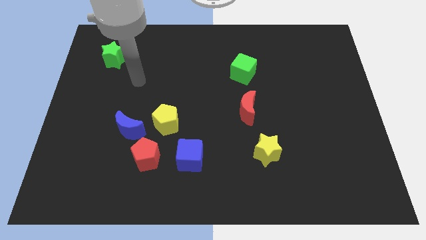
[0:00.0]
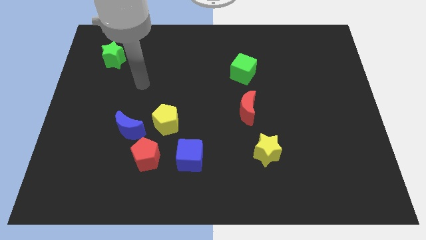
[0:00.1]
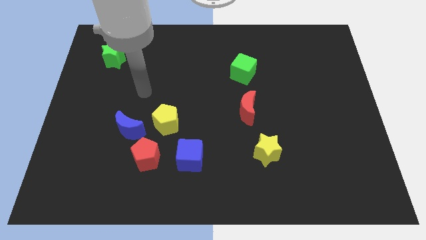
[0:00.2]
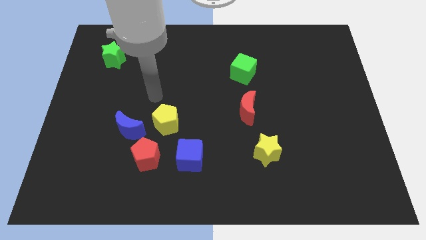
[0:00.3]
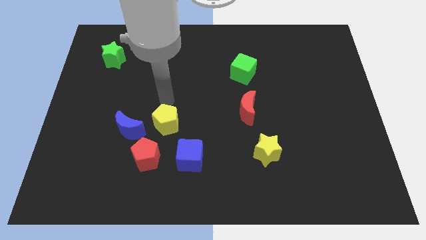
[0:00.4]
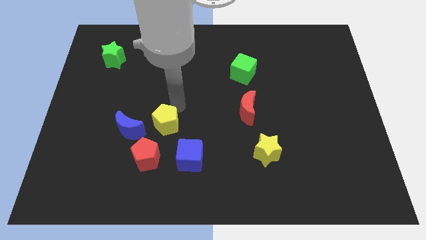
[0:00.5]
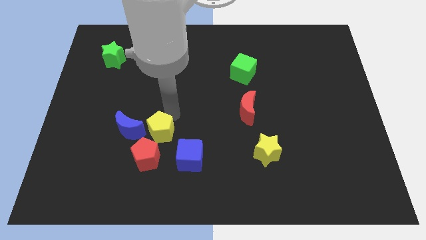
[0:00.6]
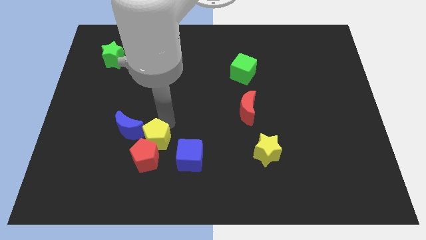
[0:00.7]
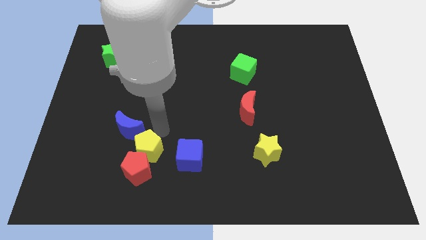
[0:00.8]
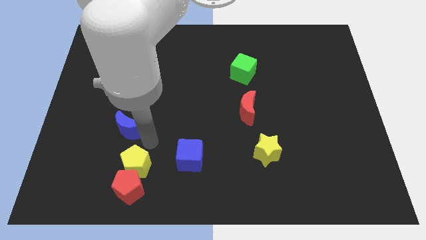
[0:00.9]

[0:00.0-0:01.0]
separate the blue moon from the red pentagon and yellow pentagon

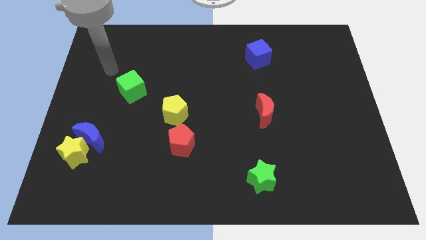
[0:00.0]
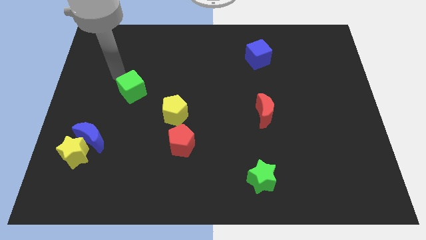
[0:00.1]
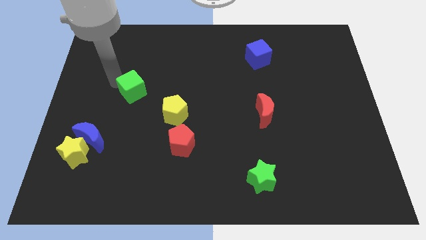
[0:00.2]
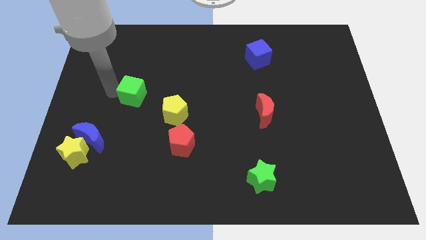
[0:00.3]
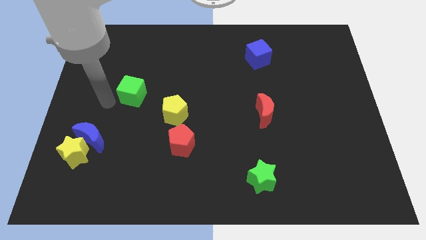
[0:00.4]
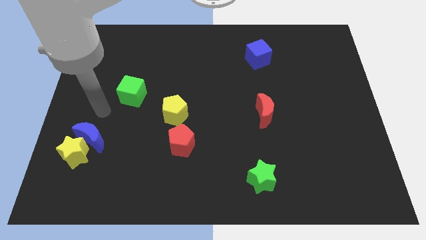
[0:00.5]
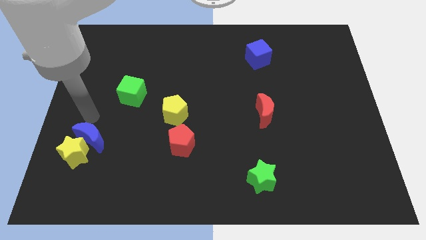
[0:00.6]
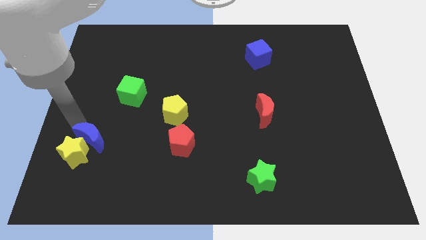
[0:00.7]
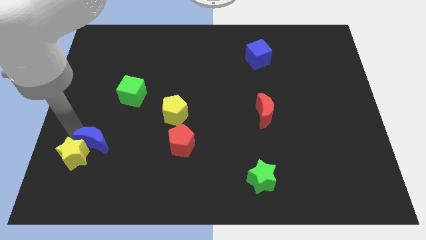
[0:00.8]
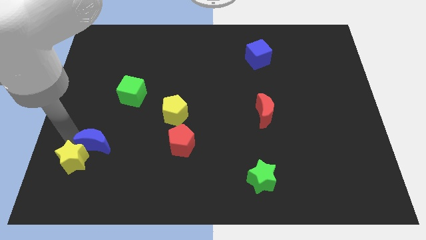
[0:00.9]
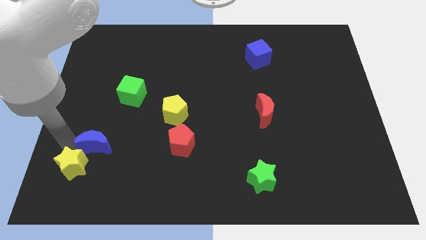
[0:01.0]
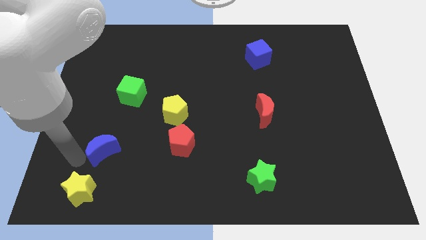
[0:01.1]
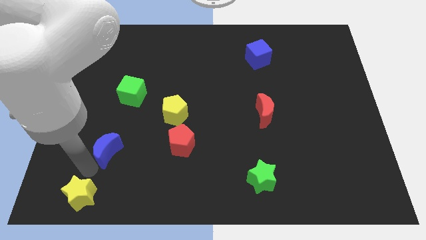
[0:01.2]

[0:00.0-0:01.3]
pull the blue moon apart from the yellow star

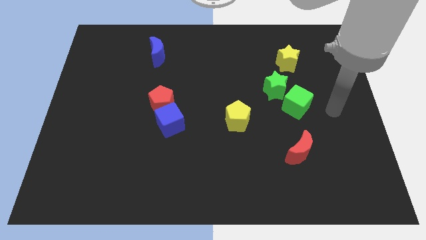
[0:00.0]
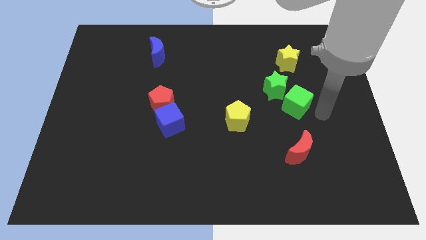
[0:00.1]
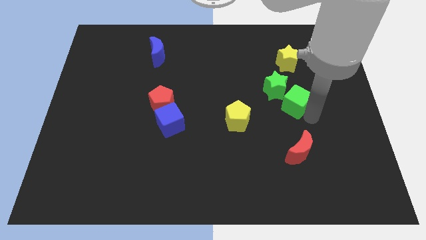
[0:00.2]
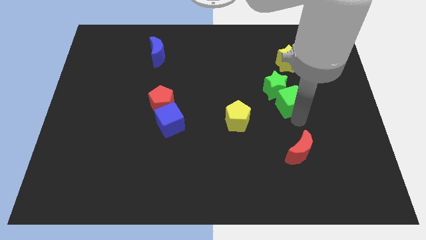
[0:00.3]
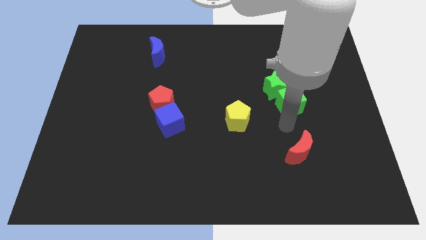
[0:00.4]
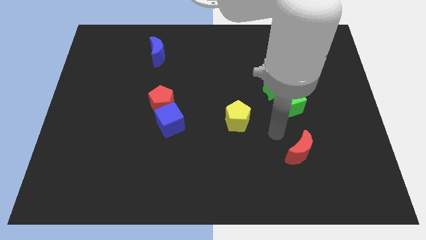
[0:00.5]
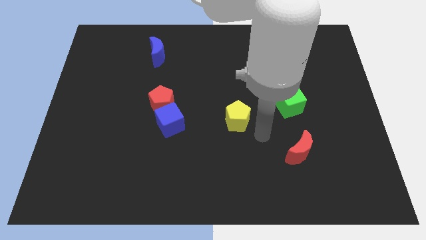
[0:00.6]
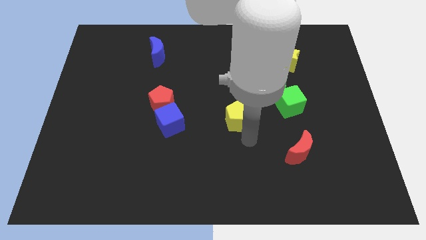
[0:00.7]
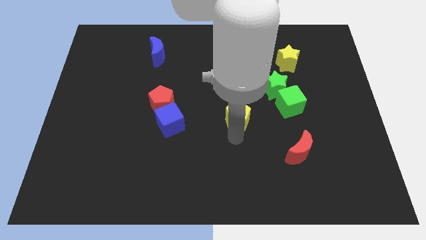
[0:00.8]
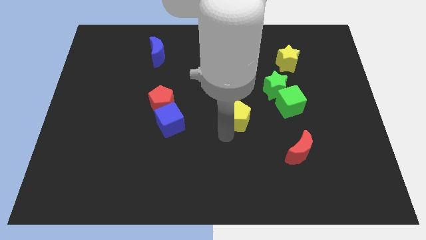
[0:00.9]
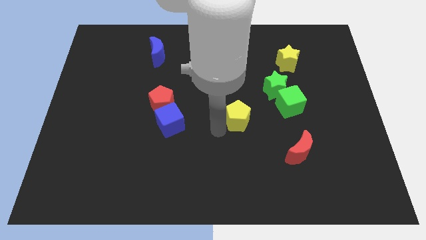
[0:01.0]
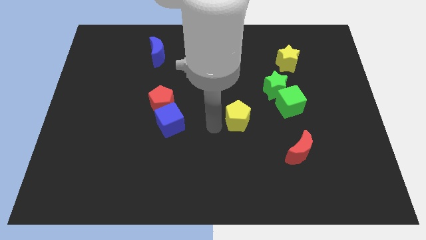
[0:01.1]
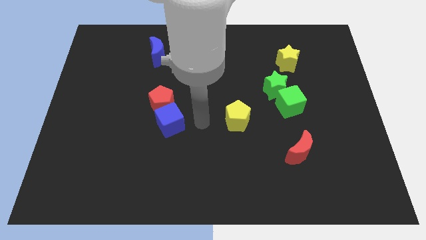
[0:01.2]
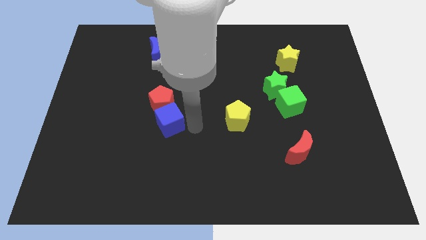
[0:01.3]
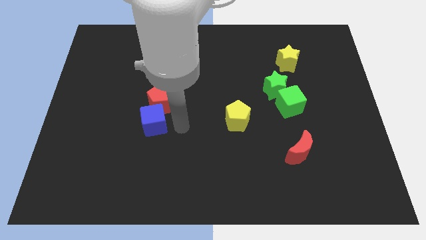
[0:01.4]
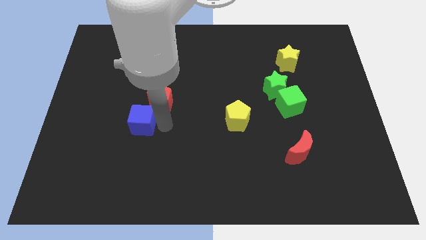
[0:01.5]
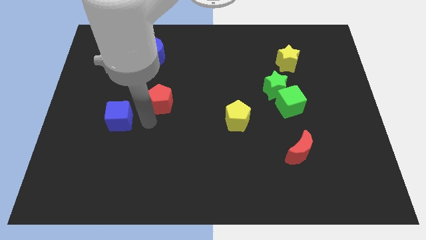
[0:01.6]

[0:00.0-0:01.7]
pull the red pentagon apart from the blue cube

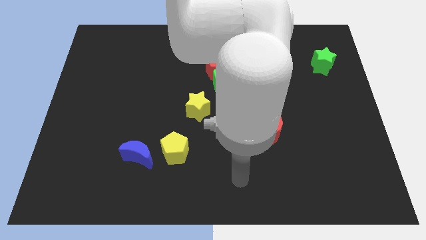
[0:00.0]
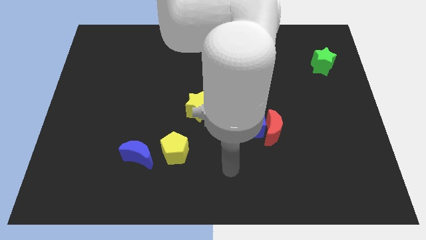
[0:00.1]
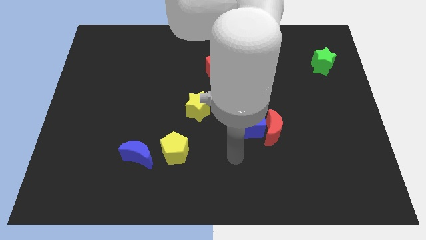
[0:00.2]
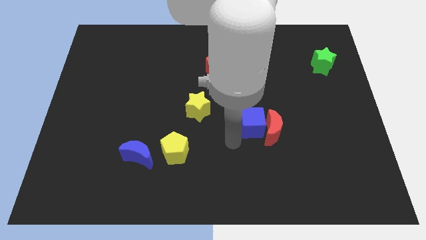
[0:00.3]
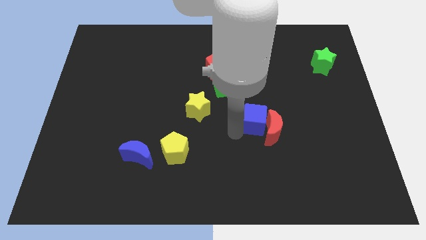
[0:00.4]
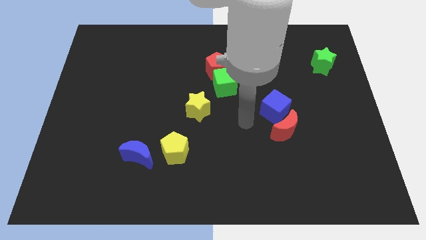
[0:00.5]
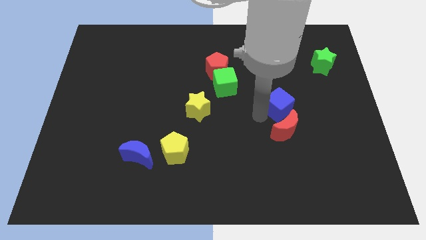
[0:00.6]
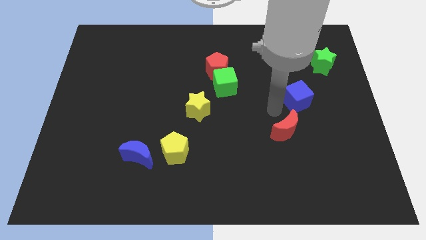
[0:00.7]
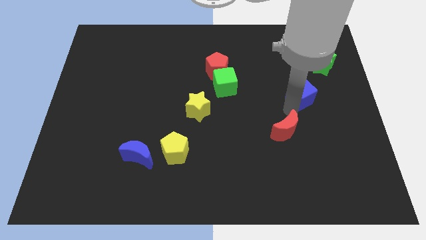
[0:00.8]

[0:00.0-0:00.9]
pull the red moon apart from the blue cube

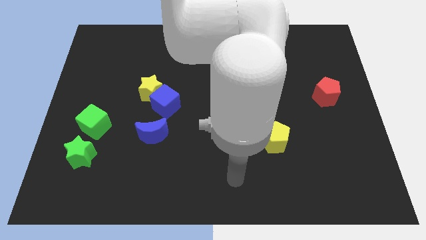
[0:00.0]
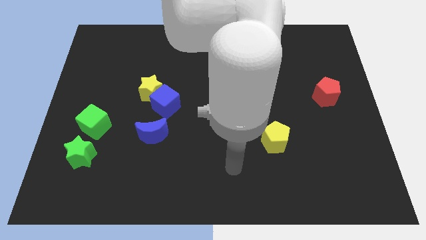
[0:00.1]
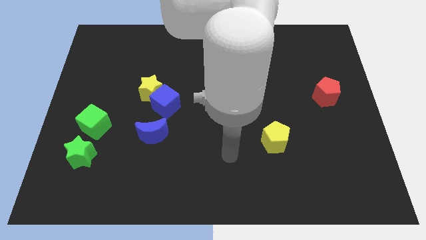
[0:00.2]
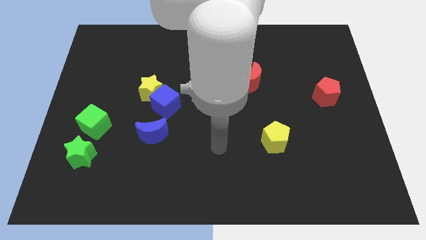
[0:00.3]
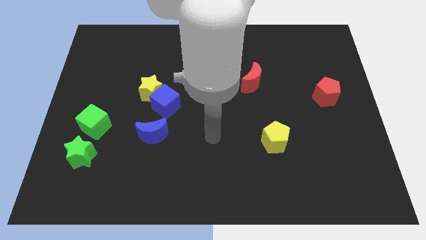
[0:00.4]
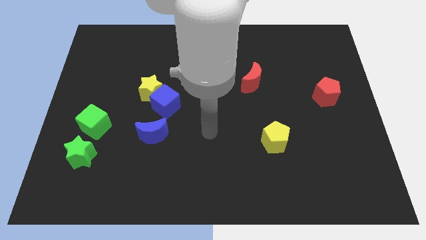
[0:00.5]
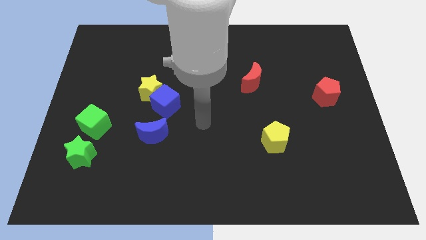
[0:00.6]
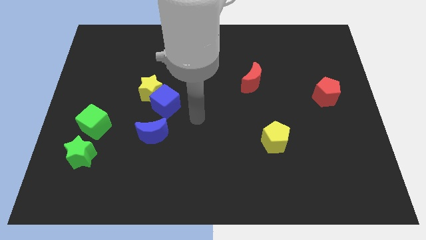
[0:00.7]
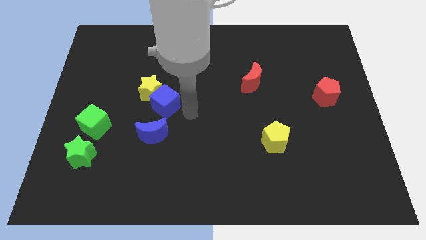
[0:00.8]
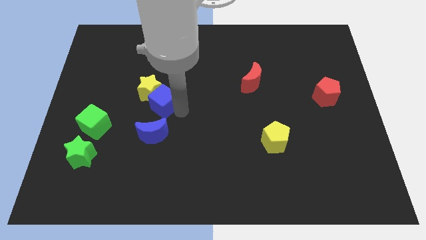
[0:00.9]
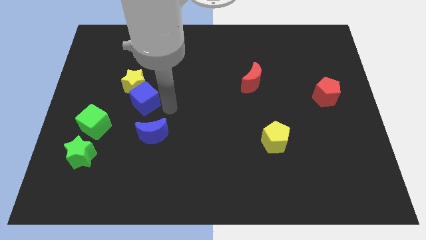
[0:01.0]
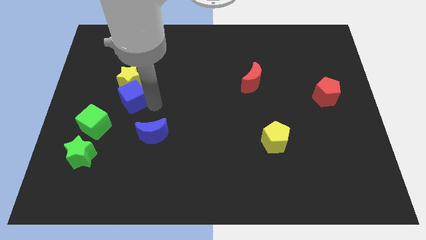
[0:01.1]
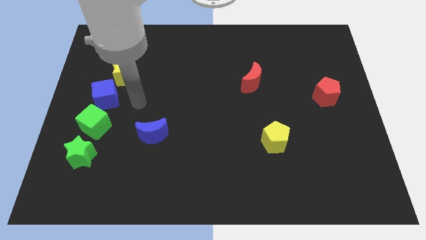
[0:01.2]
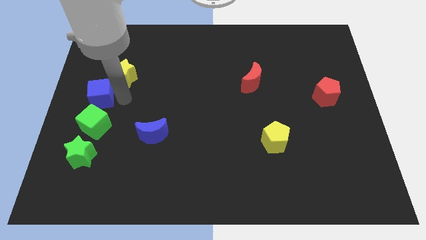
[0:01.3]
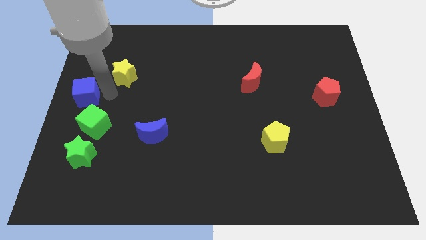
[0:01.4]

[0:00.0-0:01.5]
separate the yellow star from the blue cube

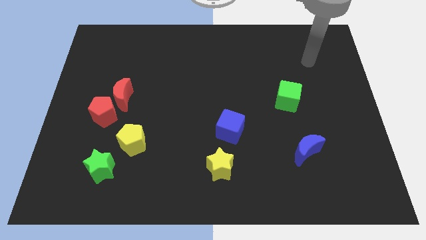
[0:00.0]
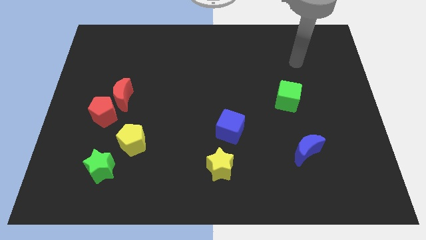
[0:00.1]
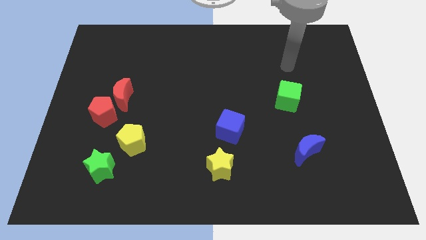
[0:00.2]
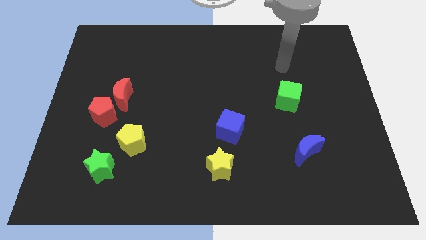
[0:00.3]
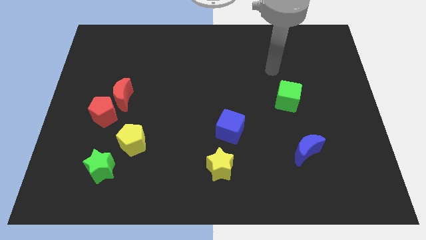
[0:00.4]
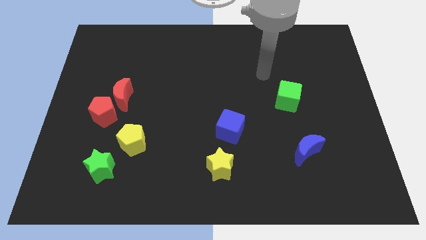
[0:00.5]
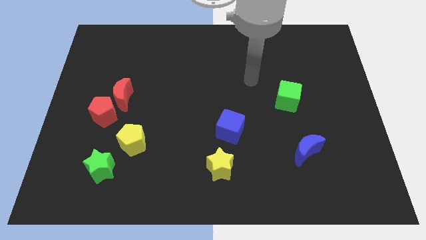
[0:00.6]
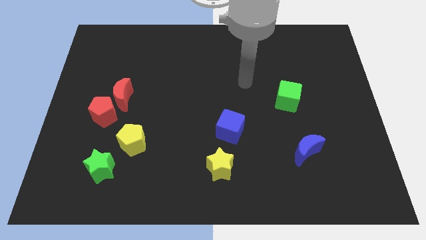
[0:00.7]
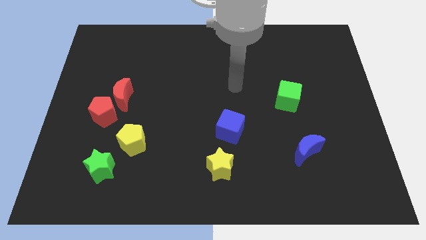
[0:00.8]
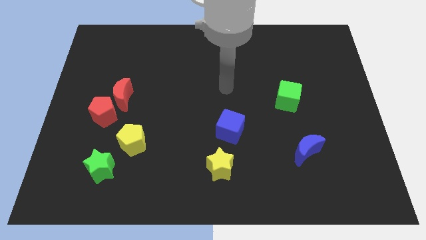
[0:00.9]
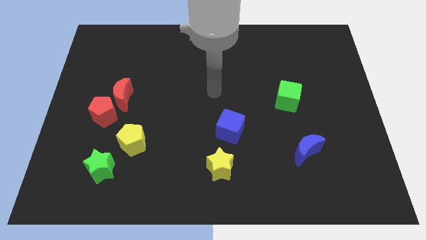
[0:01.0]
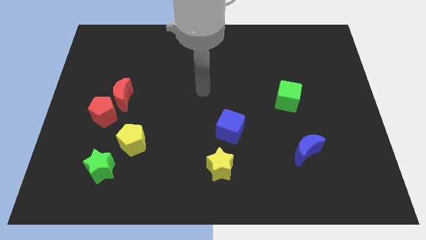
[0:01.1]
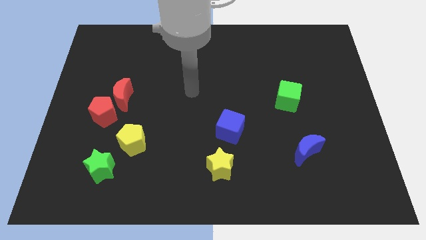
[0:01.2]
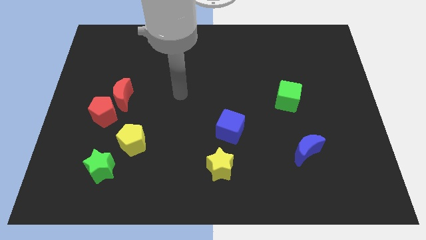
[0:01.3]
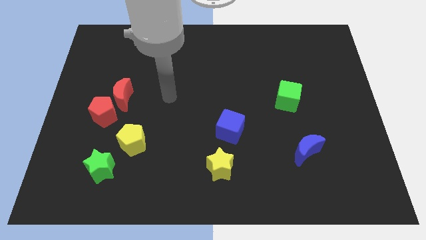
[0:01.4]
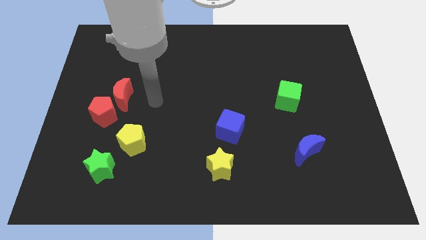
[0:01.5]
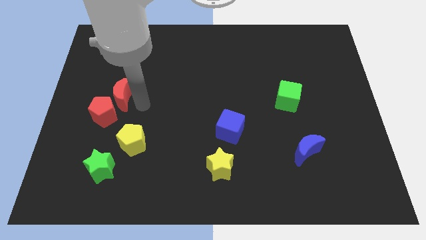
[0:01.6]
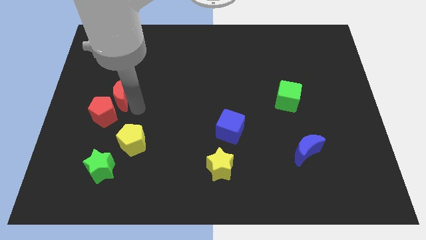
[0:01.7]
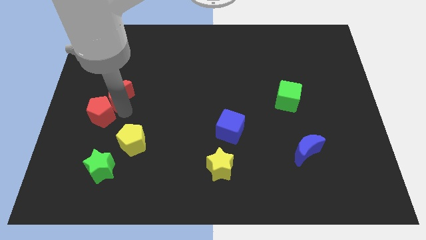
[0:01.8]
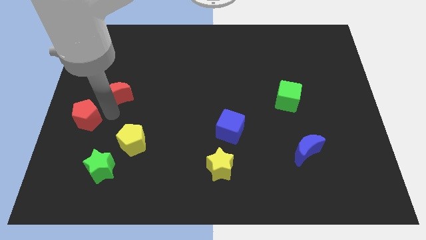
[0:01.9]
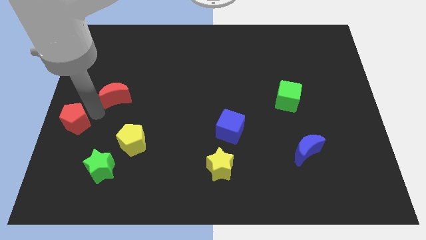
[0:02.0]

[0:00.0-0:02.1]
move the red moon away from the red pentagon

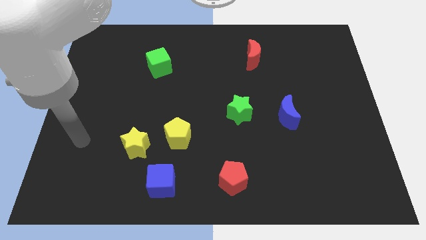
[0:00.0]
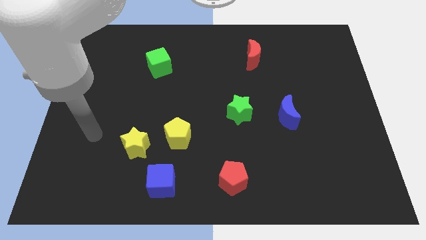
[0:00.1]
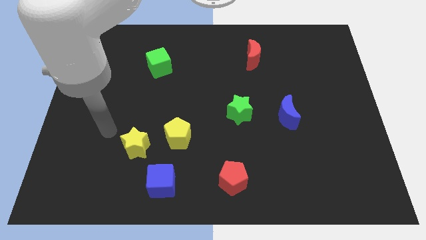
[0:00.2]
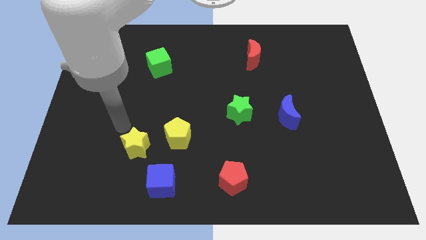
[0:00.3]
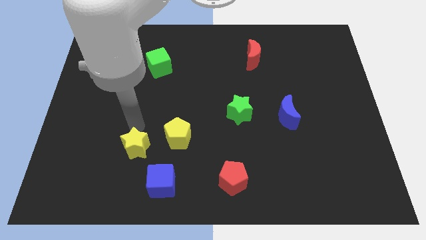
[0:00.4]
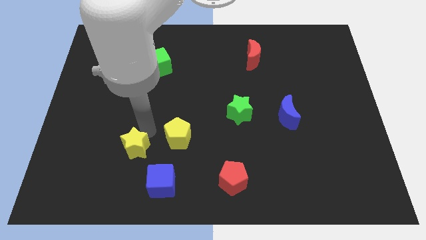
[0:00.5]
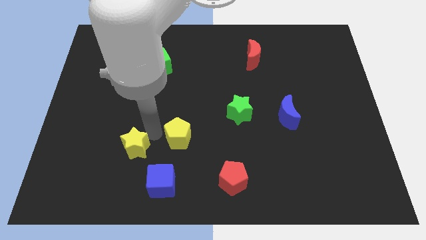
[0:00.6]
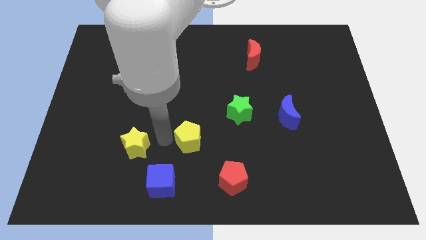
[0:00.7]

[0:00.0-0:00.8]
move the yellow star away from the yellow pentagon
